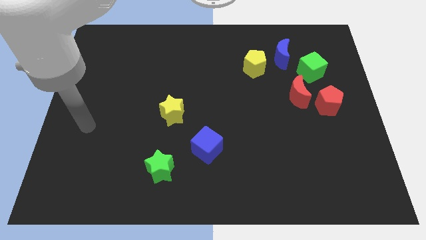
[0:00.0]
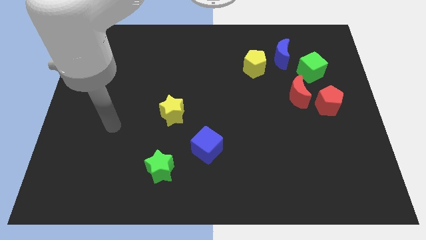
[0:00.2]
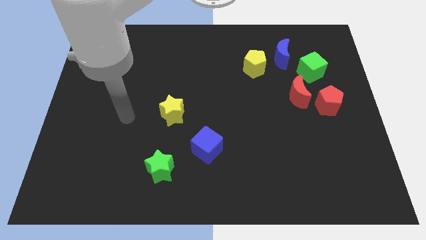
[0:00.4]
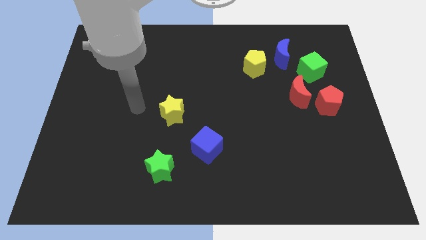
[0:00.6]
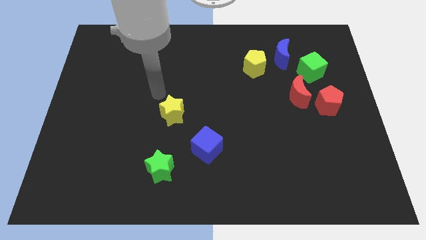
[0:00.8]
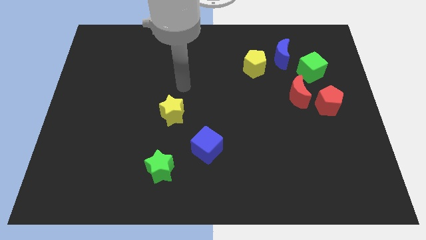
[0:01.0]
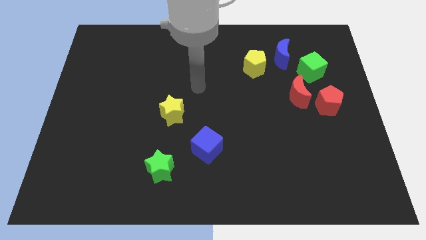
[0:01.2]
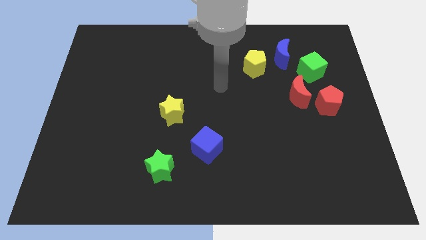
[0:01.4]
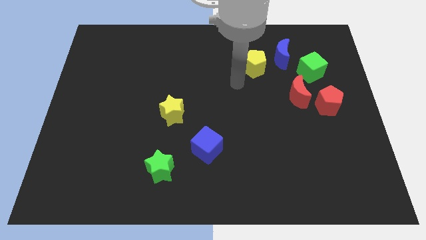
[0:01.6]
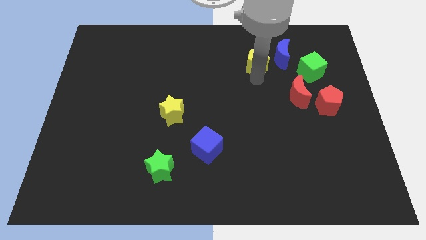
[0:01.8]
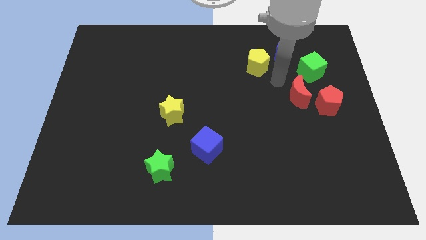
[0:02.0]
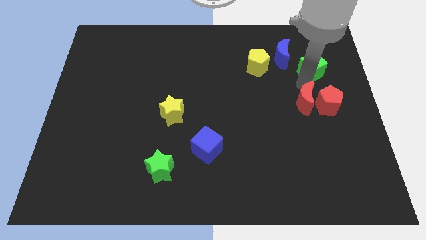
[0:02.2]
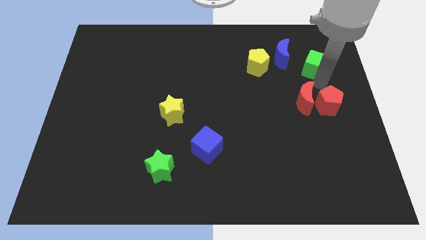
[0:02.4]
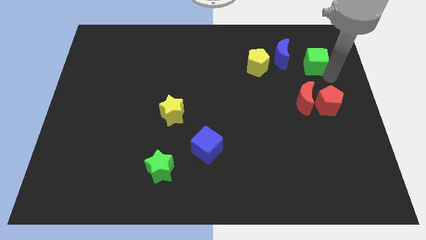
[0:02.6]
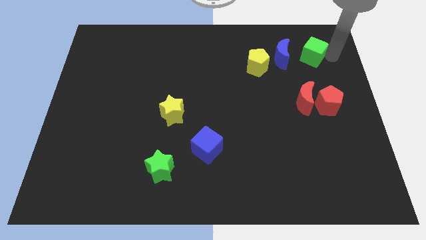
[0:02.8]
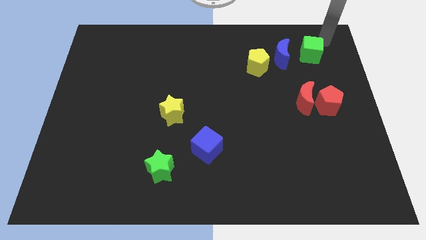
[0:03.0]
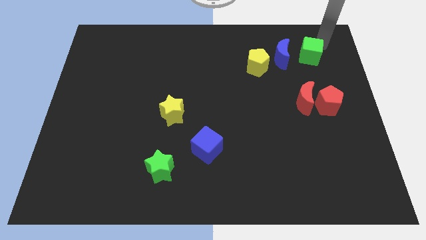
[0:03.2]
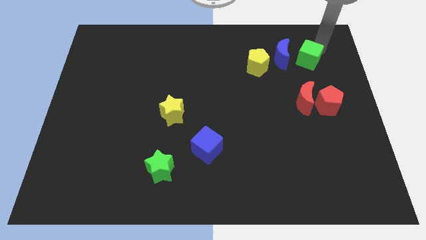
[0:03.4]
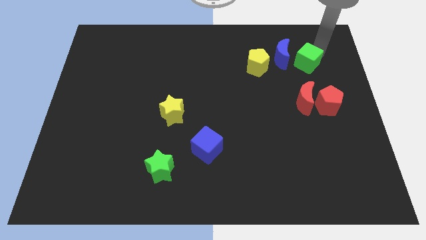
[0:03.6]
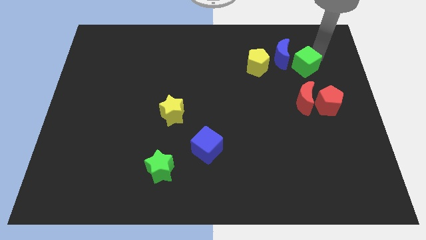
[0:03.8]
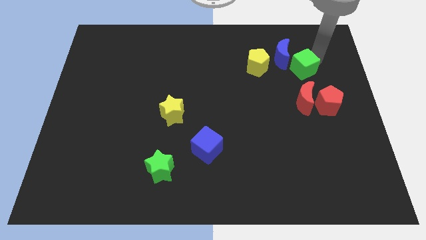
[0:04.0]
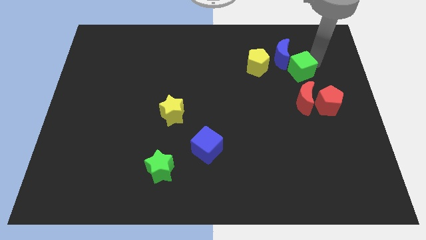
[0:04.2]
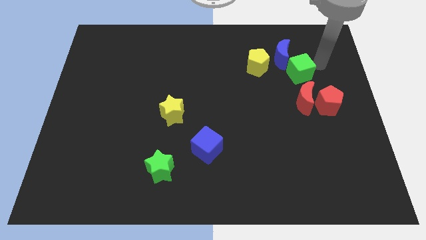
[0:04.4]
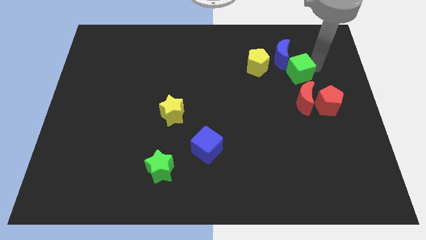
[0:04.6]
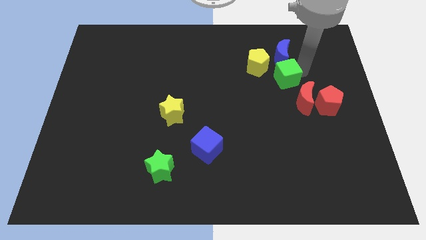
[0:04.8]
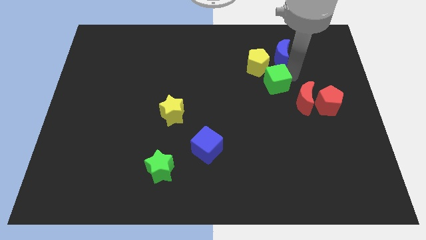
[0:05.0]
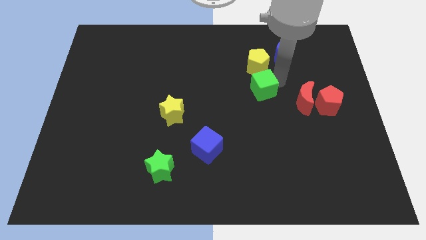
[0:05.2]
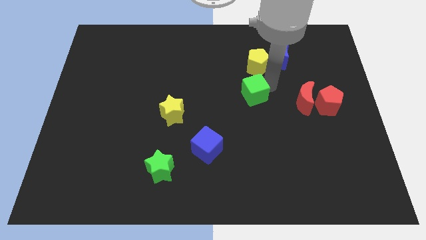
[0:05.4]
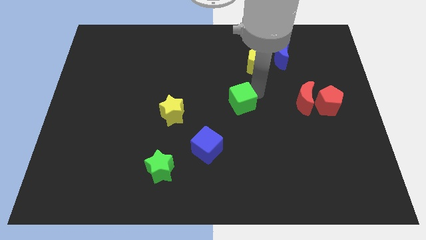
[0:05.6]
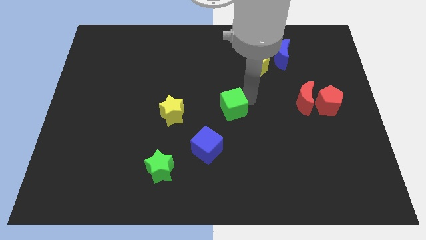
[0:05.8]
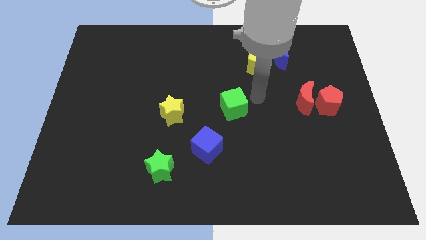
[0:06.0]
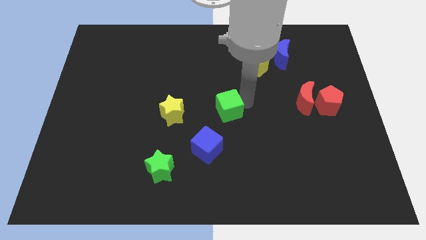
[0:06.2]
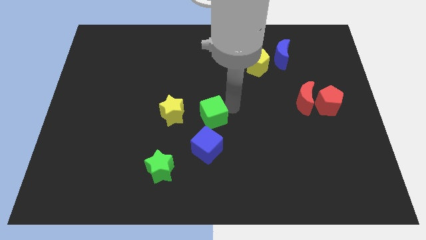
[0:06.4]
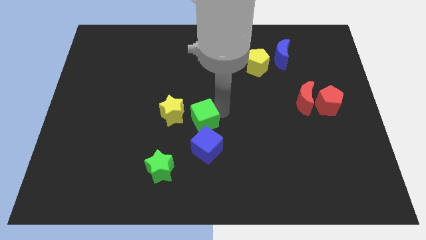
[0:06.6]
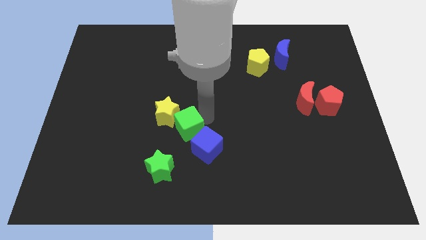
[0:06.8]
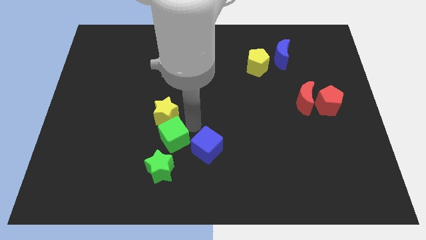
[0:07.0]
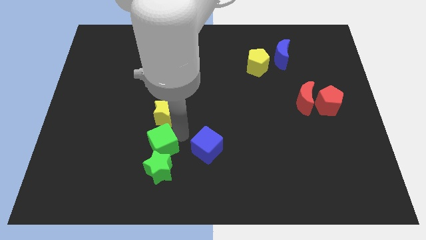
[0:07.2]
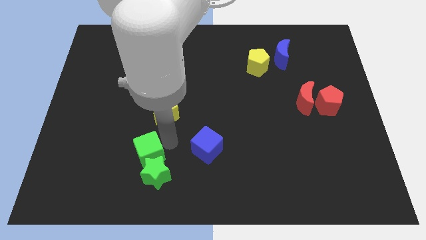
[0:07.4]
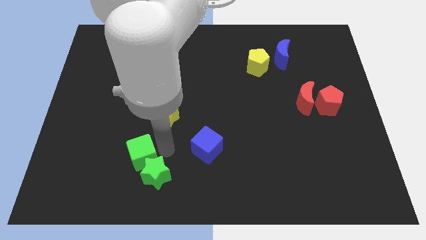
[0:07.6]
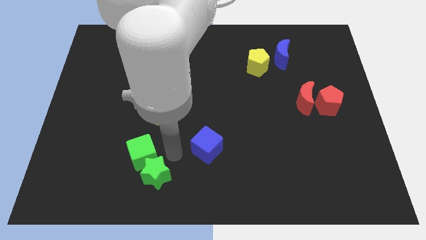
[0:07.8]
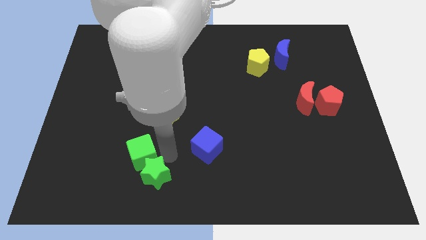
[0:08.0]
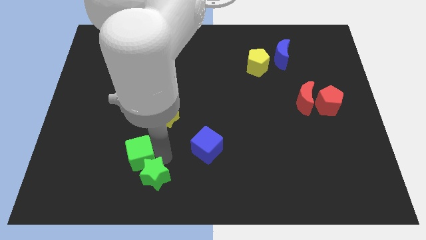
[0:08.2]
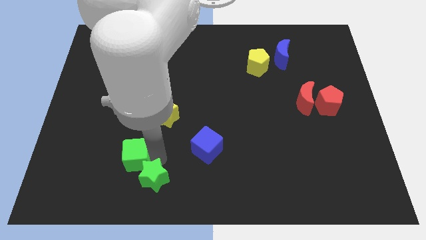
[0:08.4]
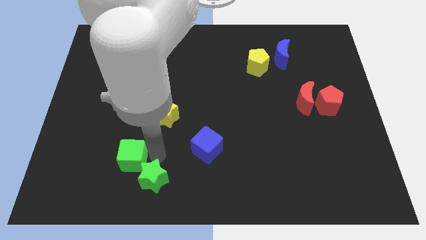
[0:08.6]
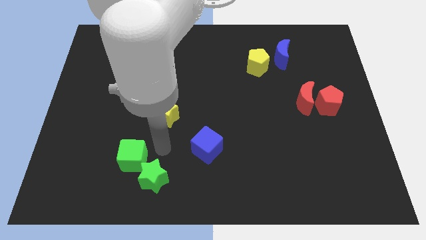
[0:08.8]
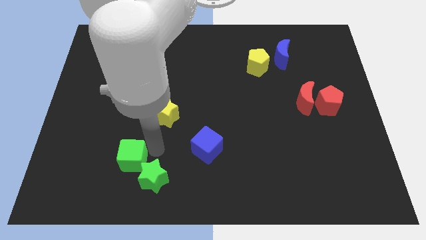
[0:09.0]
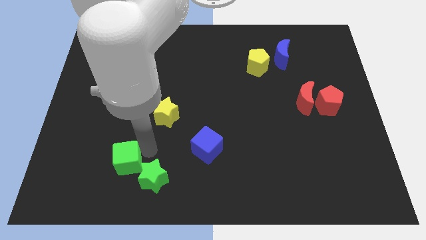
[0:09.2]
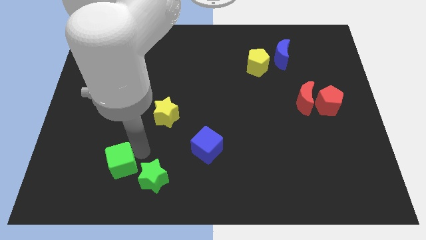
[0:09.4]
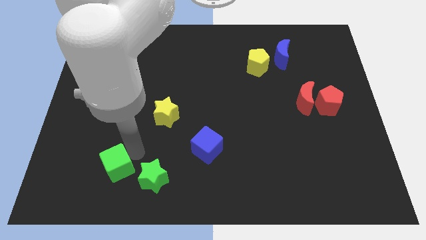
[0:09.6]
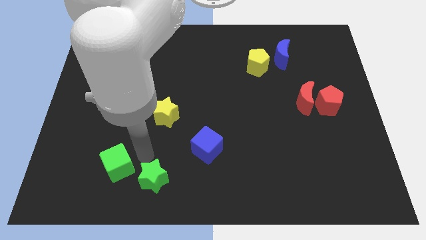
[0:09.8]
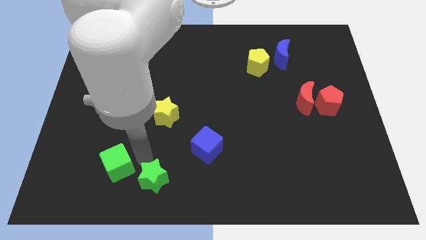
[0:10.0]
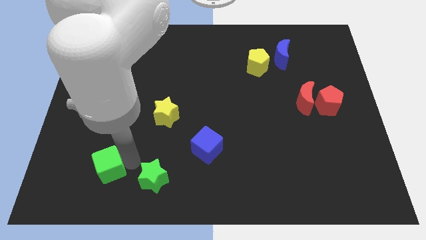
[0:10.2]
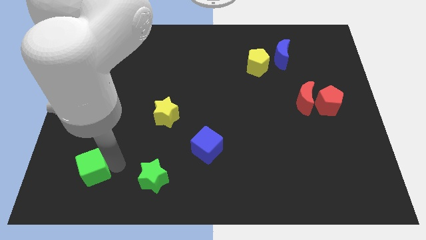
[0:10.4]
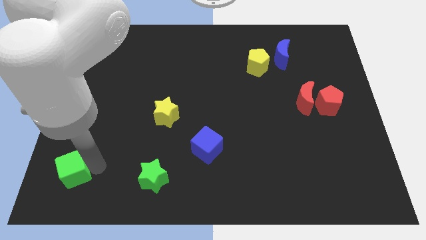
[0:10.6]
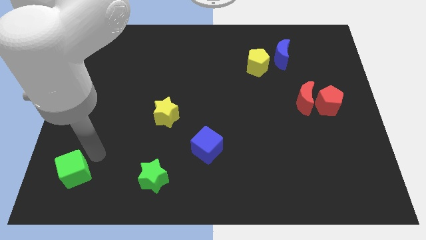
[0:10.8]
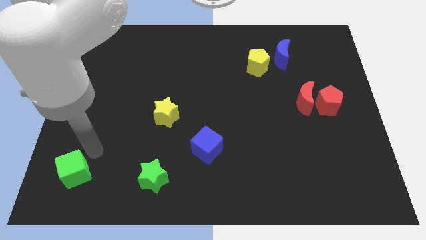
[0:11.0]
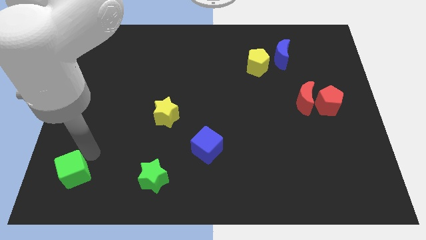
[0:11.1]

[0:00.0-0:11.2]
move the green cube to the bottom left of the board
